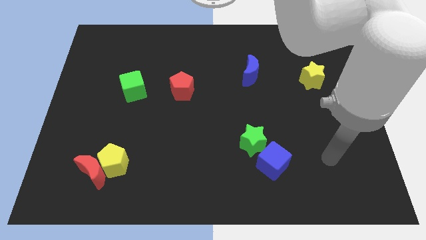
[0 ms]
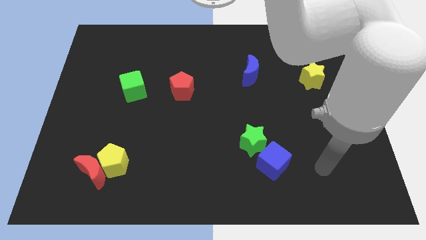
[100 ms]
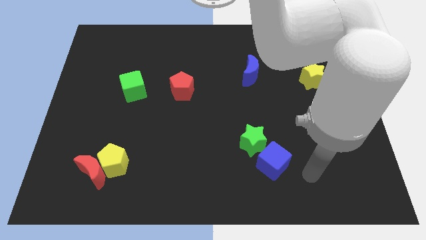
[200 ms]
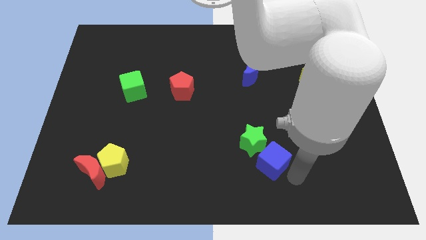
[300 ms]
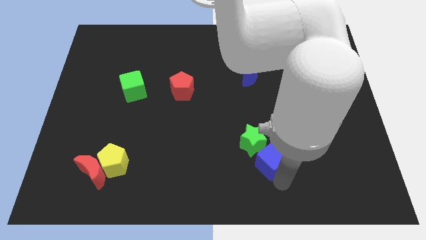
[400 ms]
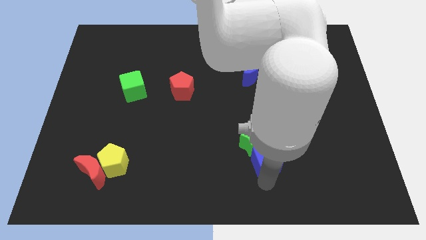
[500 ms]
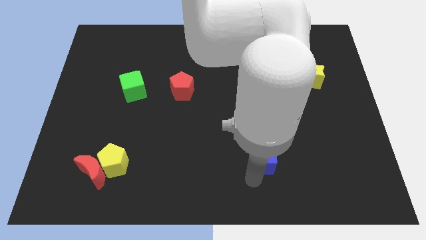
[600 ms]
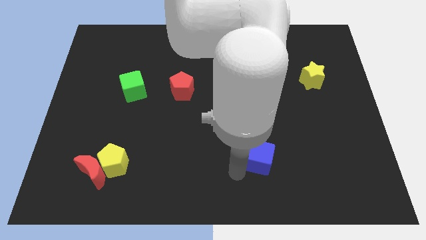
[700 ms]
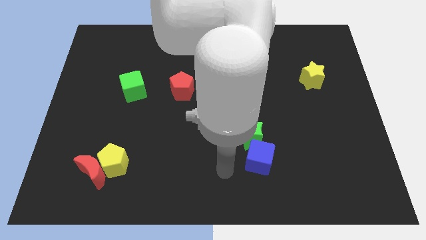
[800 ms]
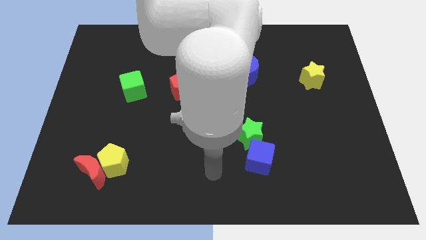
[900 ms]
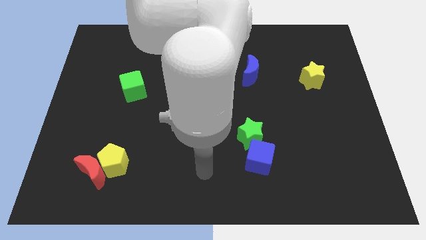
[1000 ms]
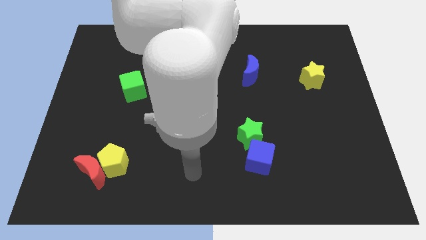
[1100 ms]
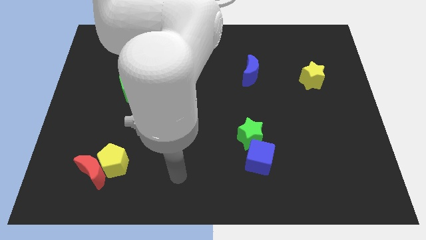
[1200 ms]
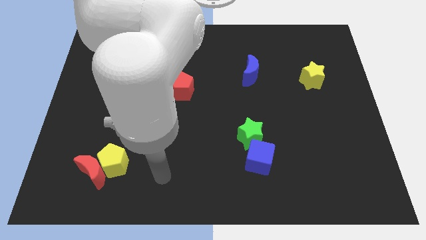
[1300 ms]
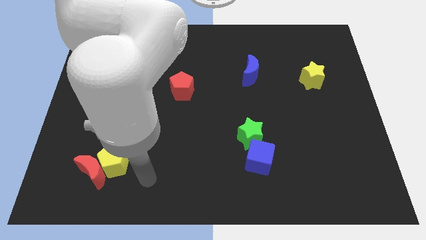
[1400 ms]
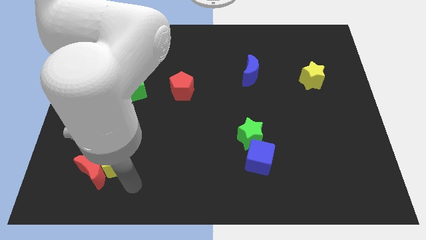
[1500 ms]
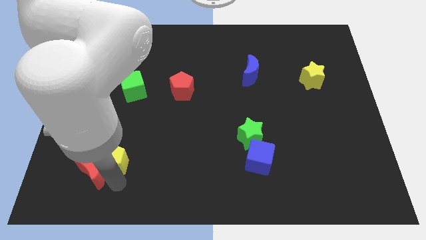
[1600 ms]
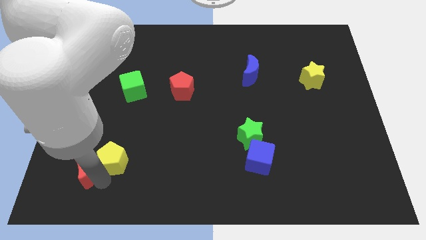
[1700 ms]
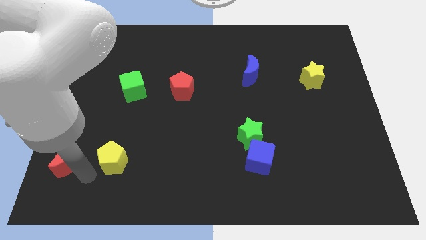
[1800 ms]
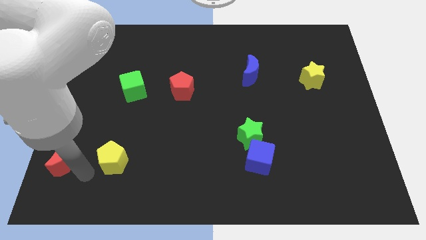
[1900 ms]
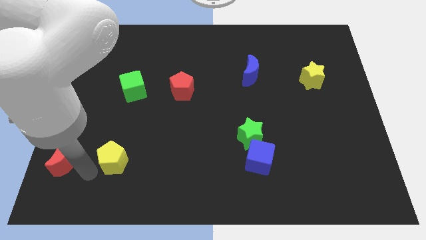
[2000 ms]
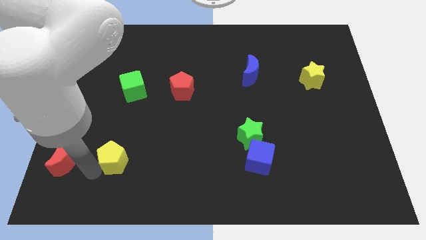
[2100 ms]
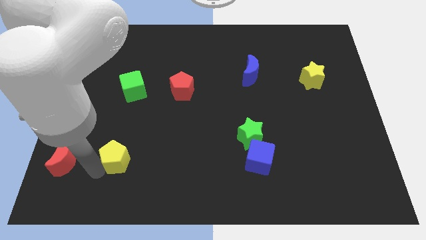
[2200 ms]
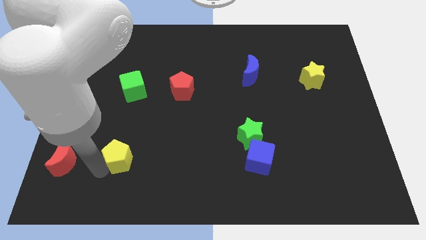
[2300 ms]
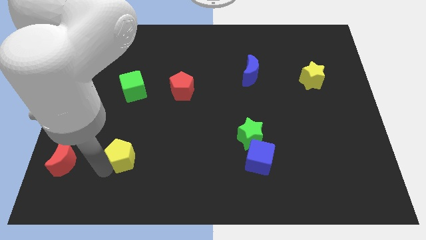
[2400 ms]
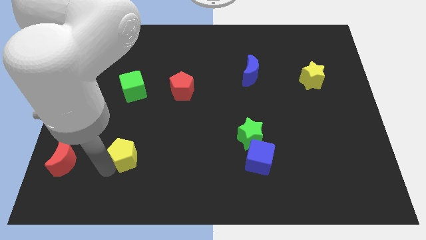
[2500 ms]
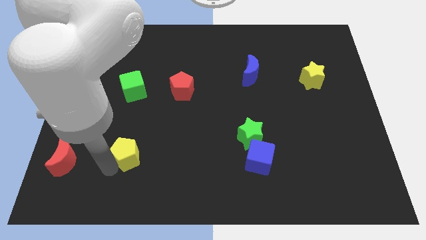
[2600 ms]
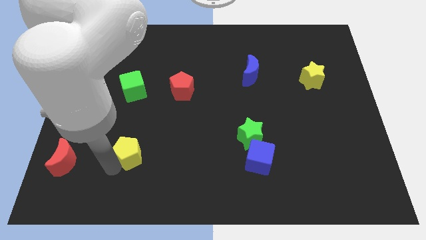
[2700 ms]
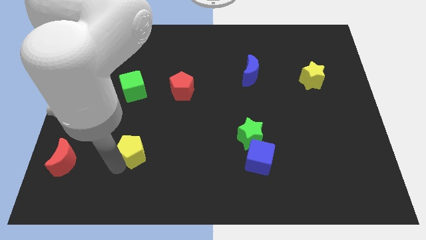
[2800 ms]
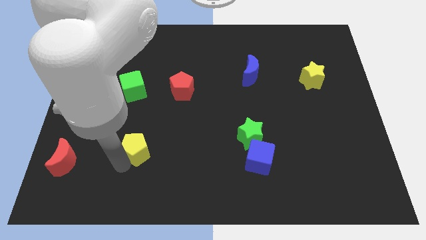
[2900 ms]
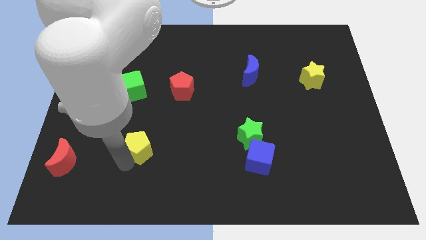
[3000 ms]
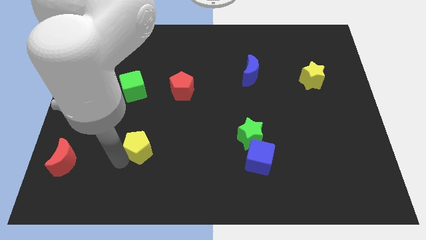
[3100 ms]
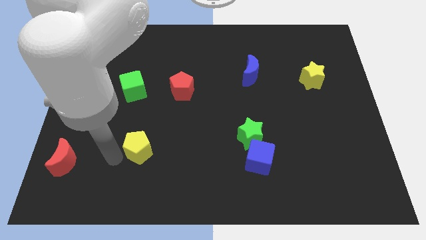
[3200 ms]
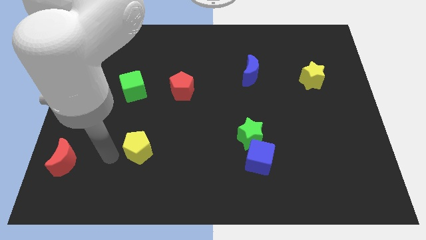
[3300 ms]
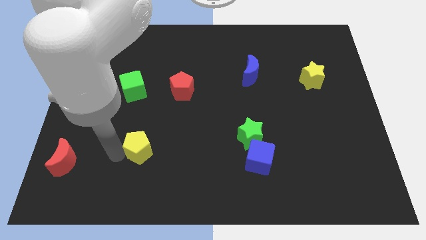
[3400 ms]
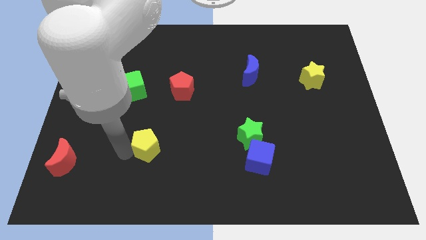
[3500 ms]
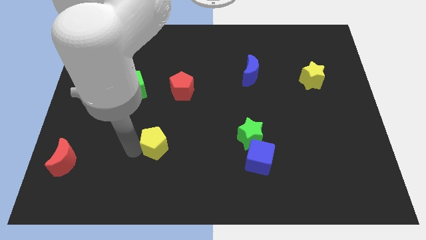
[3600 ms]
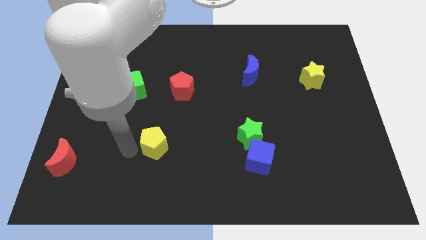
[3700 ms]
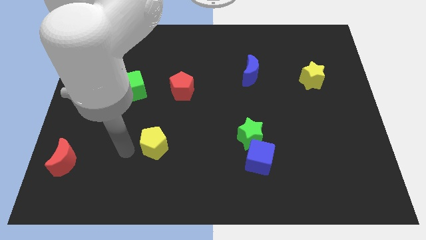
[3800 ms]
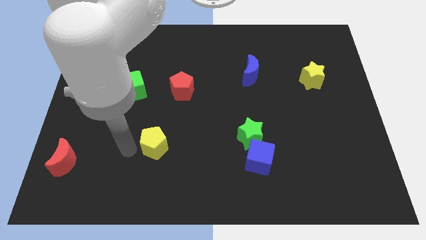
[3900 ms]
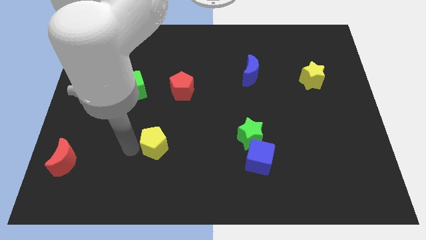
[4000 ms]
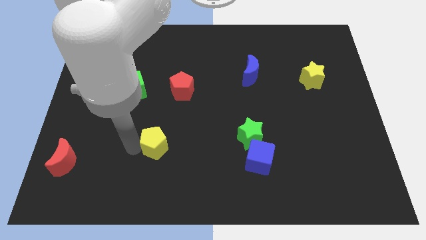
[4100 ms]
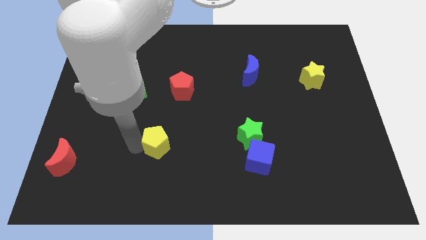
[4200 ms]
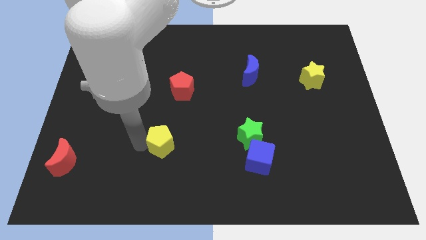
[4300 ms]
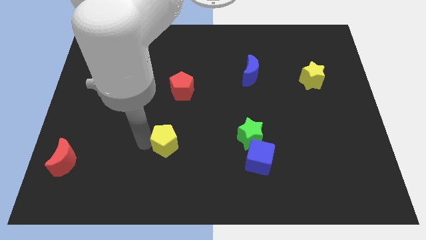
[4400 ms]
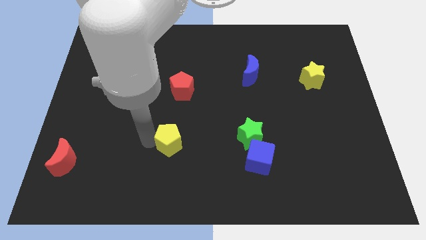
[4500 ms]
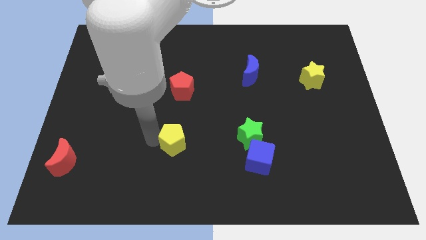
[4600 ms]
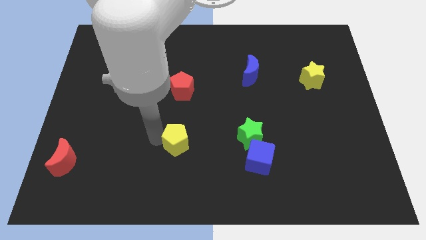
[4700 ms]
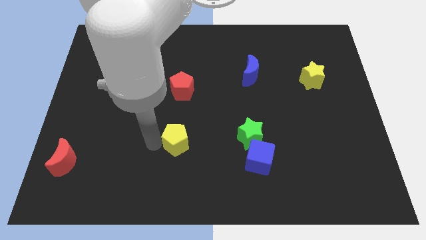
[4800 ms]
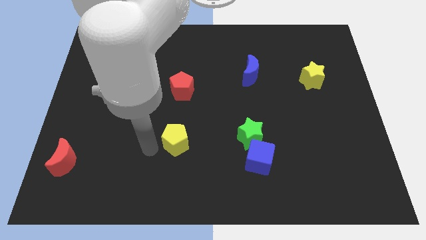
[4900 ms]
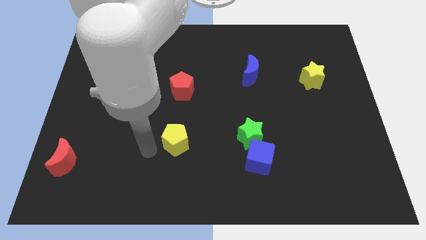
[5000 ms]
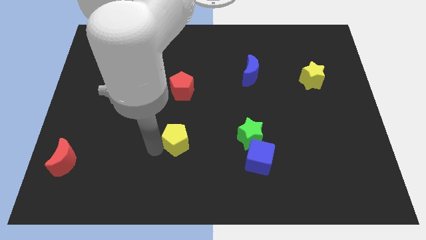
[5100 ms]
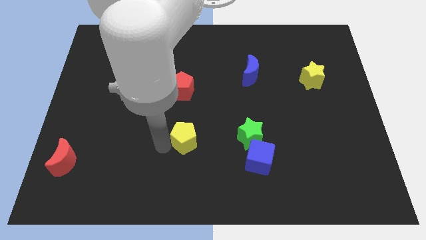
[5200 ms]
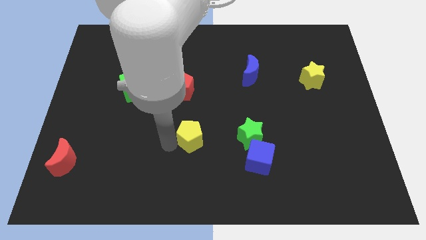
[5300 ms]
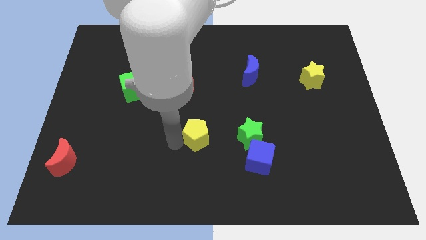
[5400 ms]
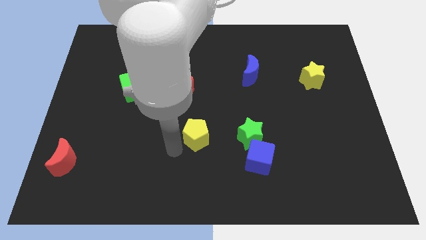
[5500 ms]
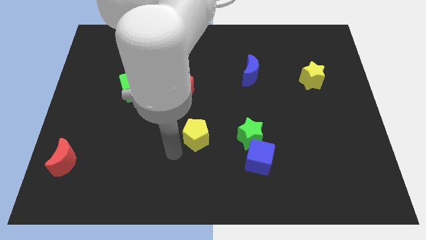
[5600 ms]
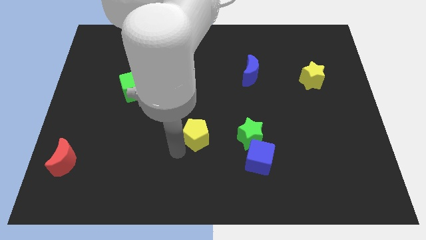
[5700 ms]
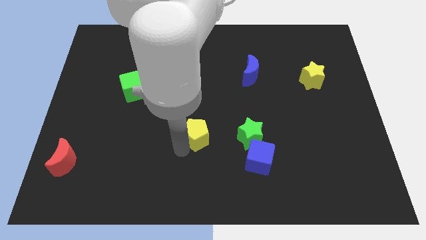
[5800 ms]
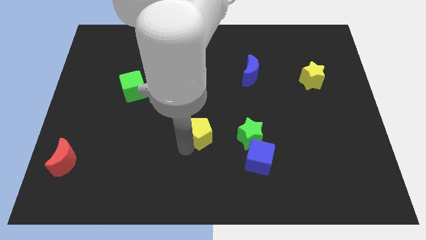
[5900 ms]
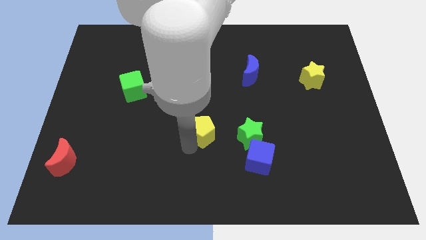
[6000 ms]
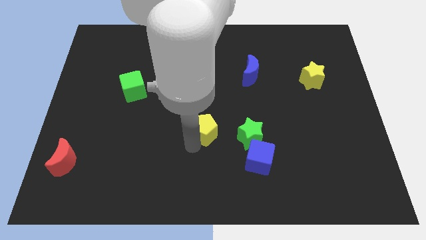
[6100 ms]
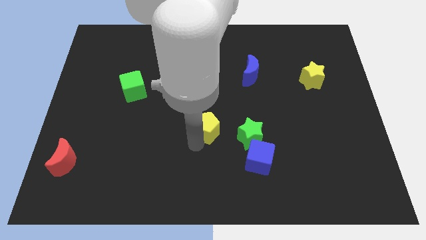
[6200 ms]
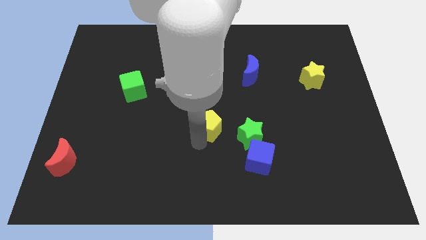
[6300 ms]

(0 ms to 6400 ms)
slide the yellow pentagon to the top left of the green star

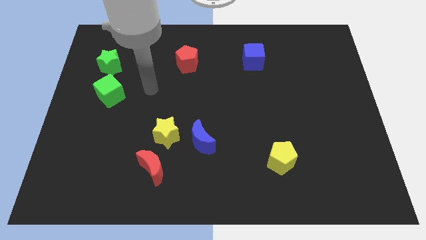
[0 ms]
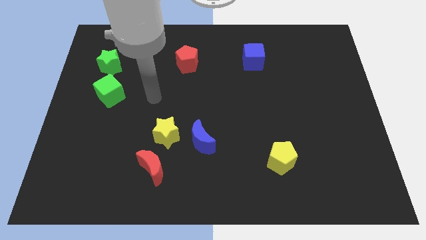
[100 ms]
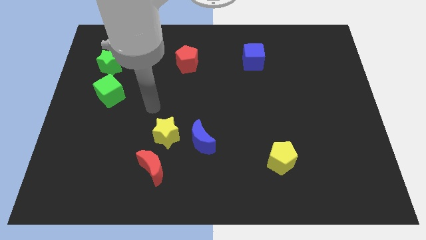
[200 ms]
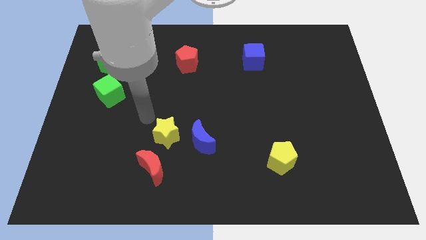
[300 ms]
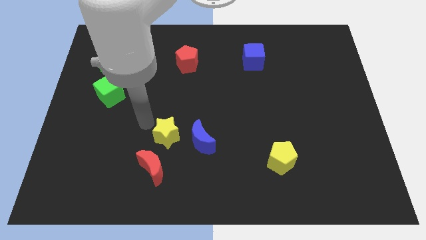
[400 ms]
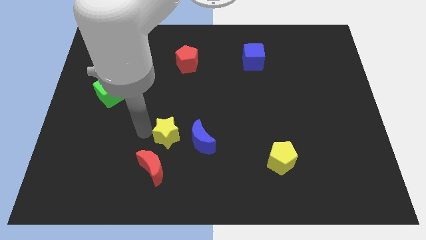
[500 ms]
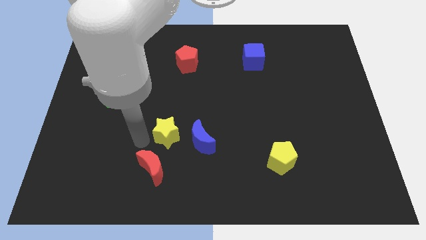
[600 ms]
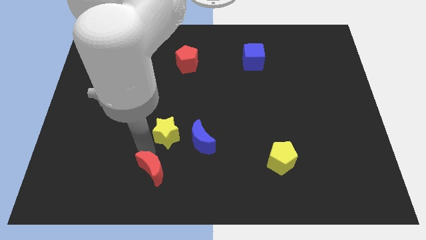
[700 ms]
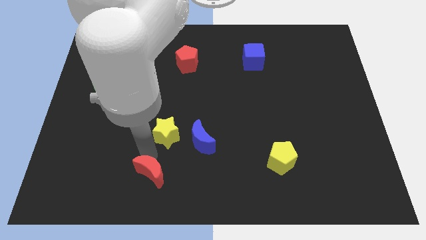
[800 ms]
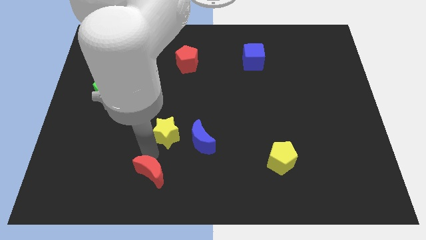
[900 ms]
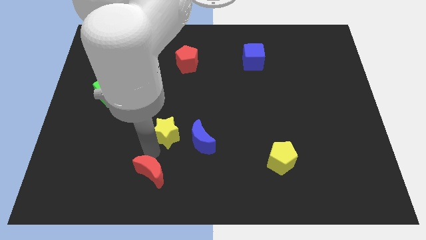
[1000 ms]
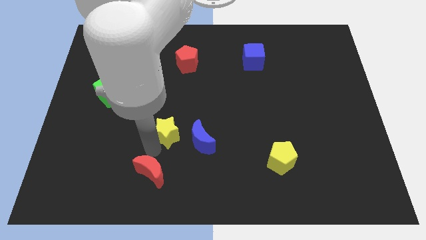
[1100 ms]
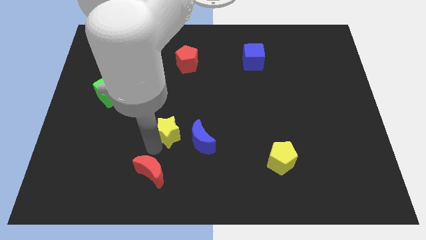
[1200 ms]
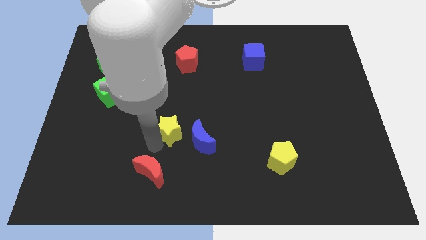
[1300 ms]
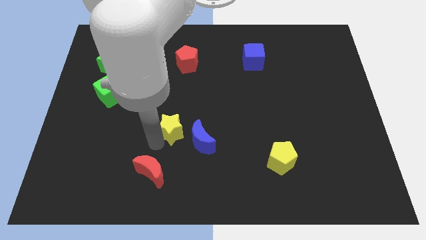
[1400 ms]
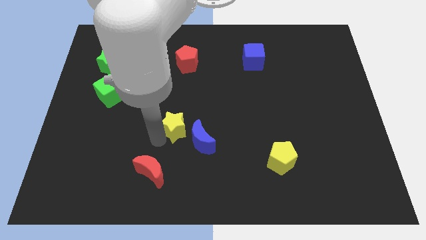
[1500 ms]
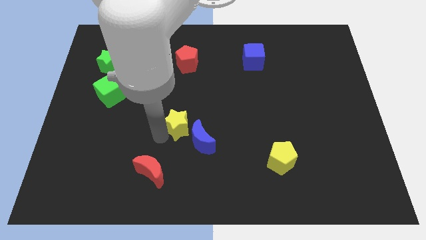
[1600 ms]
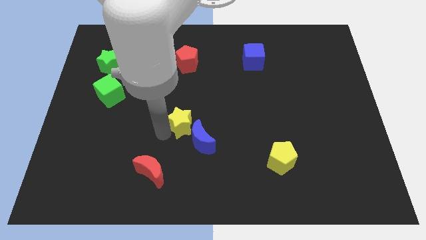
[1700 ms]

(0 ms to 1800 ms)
slide the yellow star to the top of the blue moon
